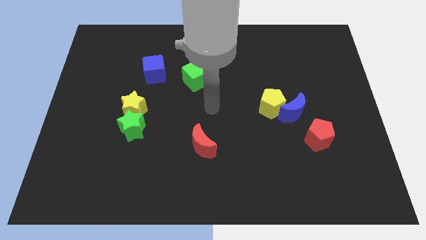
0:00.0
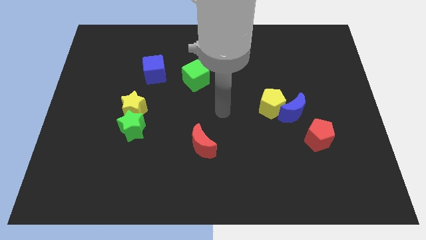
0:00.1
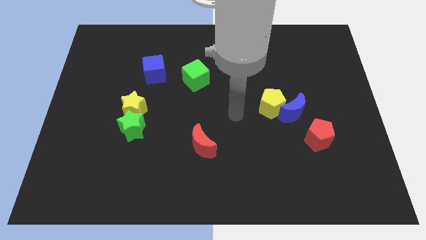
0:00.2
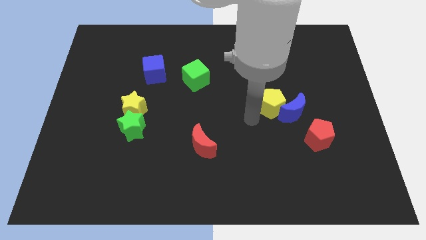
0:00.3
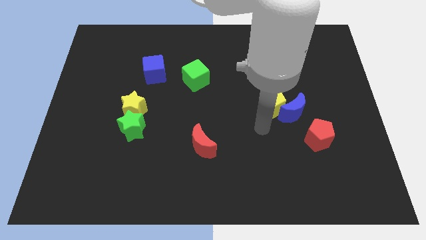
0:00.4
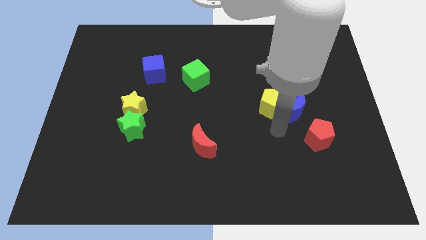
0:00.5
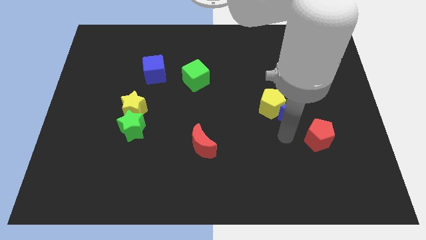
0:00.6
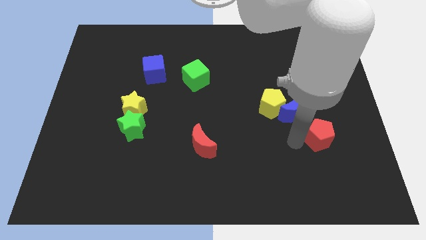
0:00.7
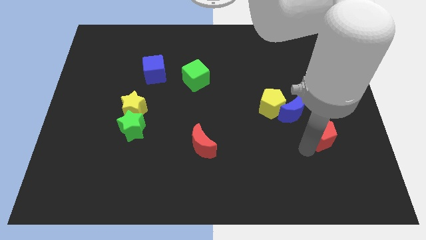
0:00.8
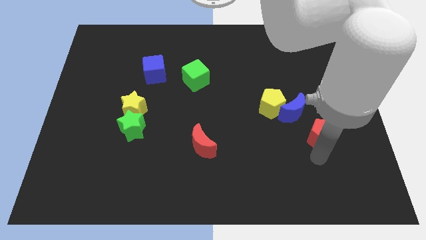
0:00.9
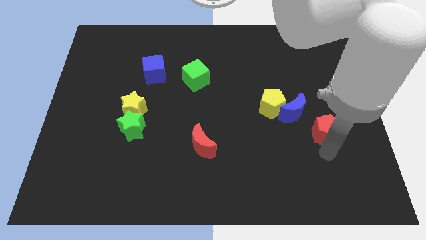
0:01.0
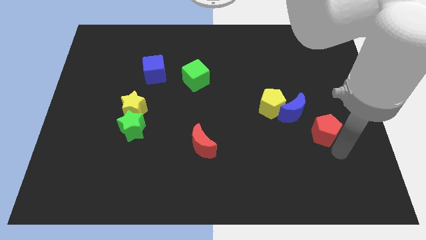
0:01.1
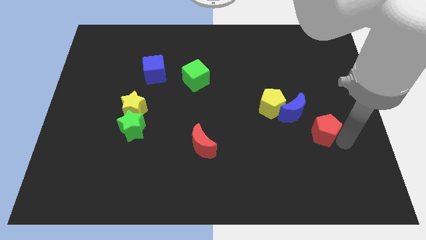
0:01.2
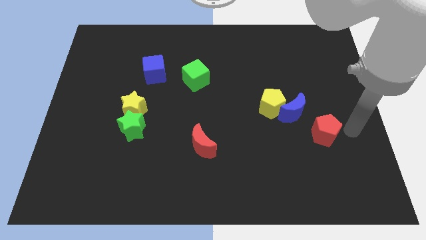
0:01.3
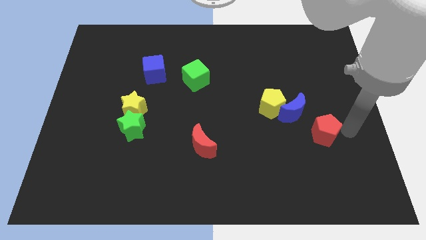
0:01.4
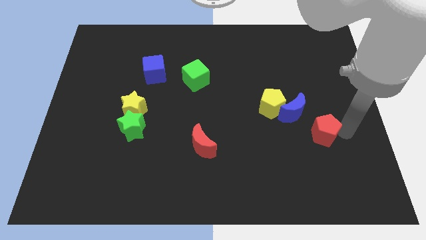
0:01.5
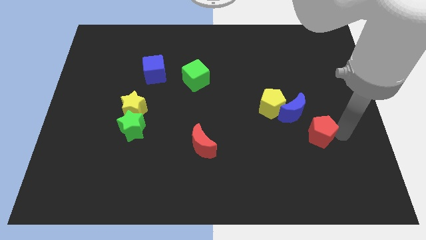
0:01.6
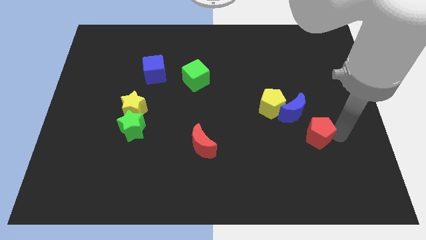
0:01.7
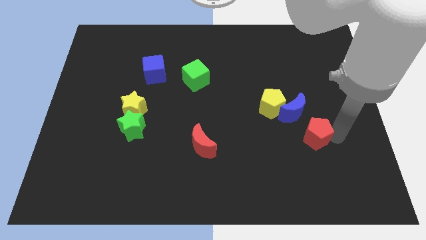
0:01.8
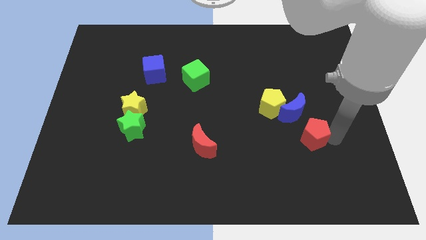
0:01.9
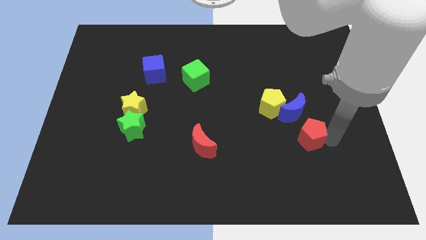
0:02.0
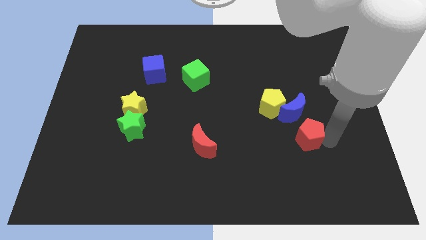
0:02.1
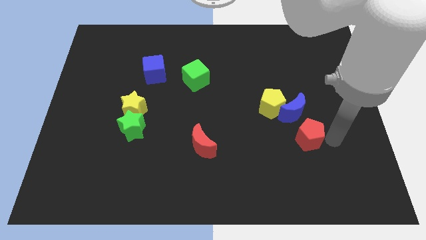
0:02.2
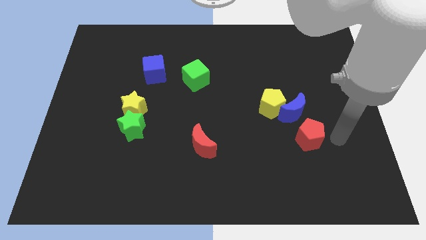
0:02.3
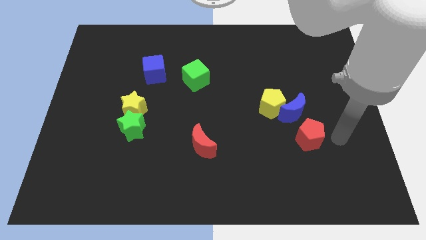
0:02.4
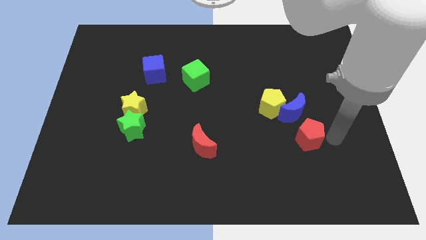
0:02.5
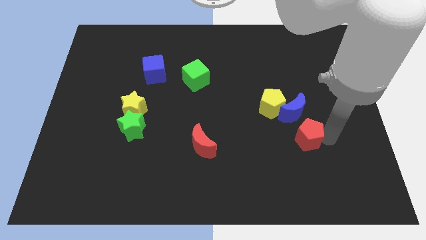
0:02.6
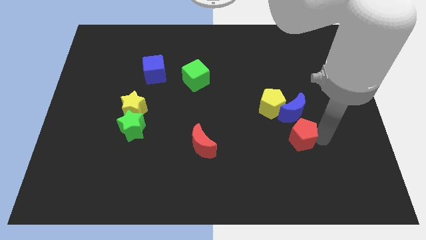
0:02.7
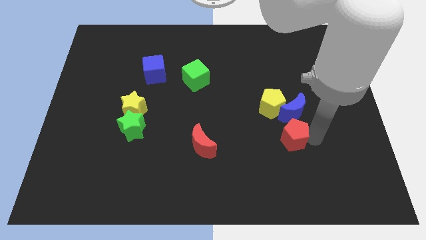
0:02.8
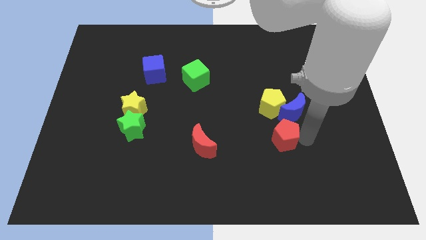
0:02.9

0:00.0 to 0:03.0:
move the red pentagon to the left a little bit

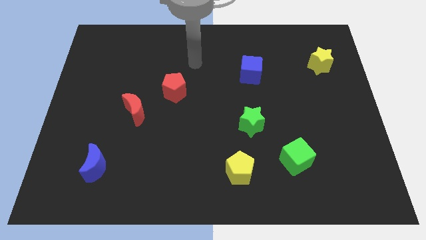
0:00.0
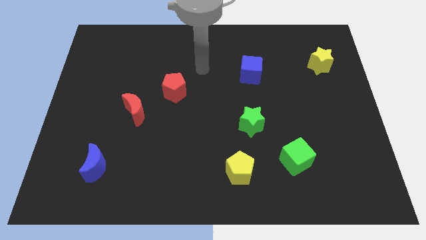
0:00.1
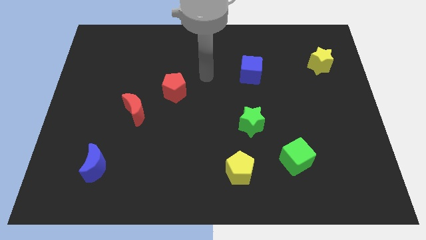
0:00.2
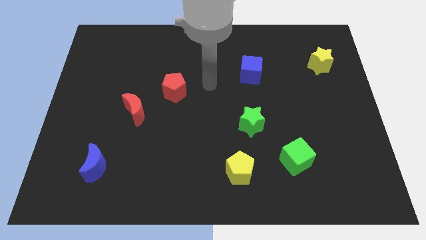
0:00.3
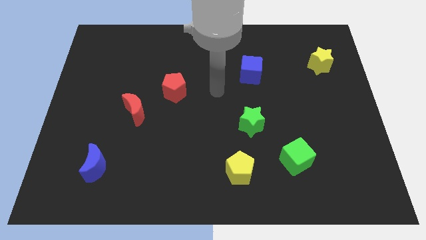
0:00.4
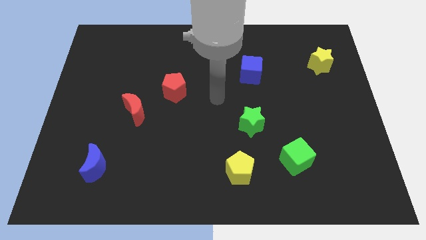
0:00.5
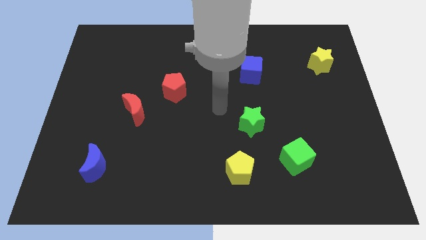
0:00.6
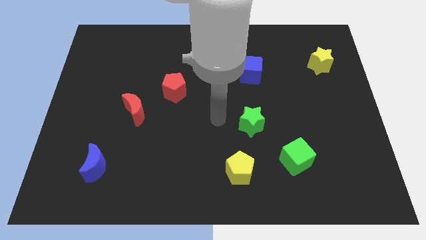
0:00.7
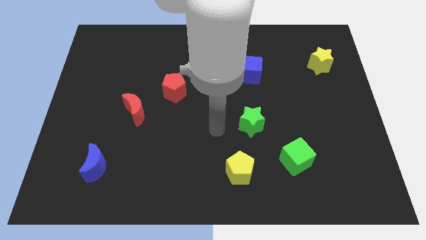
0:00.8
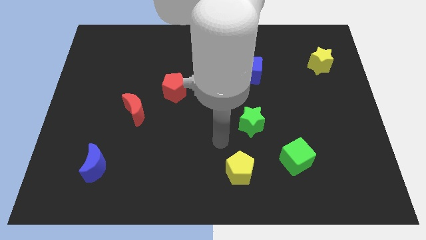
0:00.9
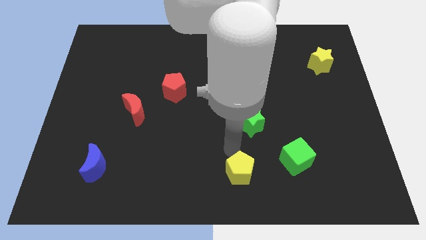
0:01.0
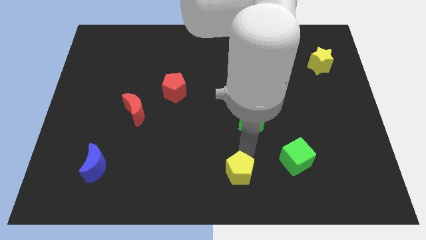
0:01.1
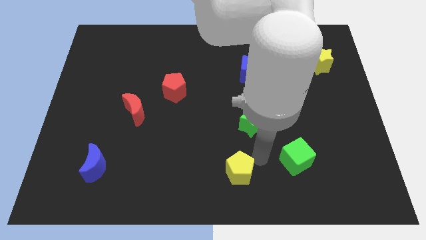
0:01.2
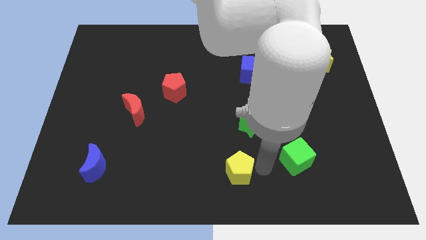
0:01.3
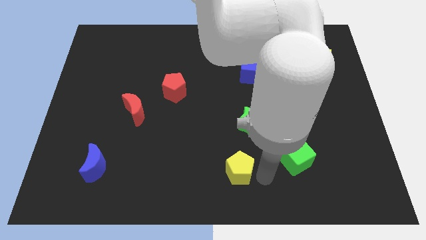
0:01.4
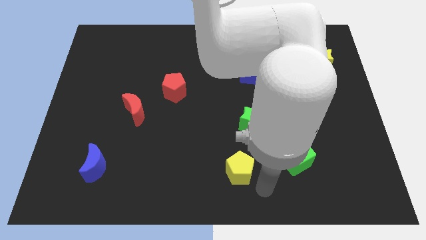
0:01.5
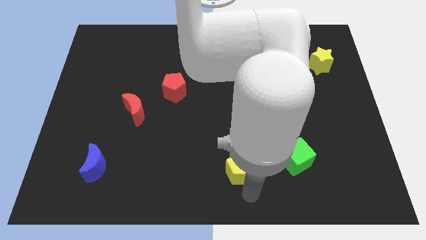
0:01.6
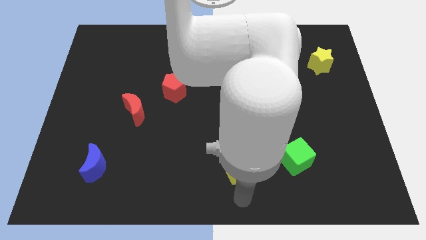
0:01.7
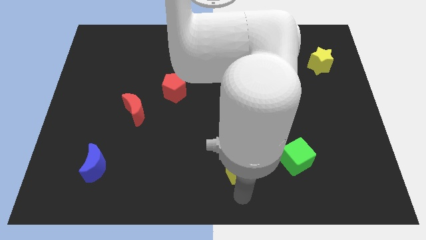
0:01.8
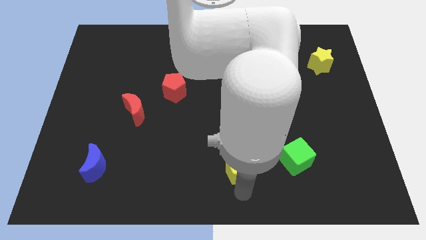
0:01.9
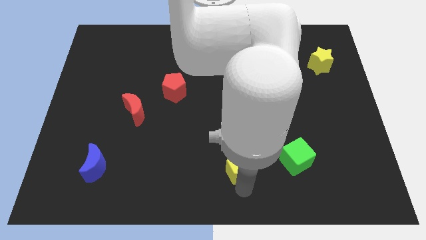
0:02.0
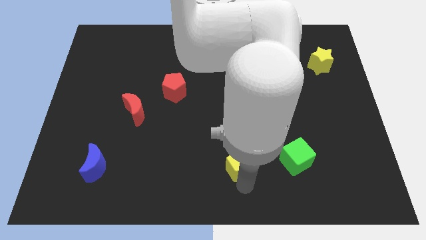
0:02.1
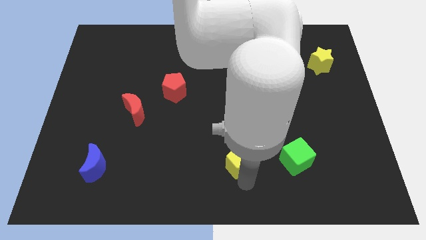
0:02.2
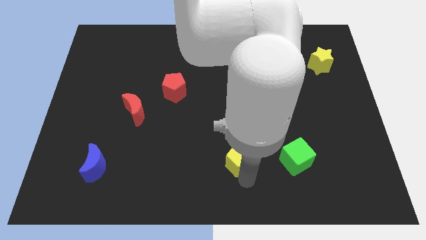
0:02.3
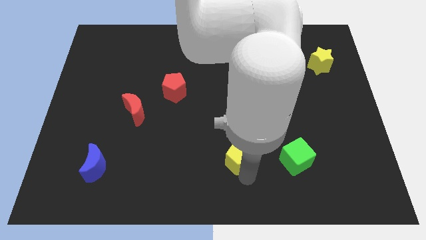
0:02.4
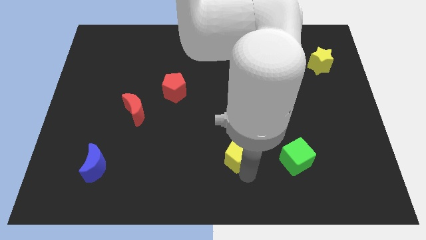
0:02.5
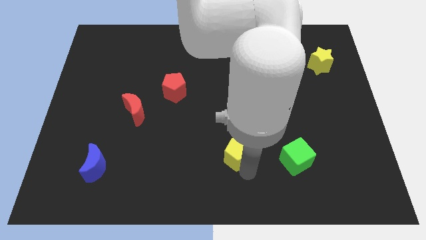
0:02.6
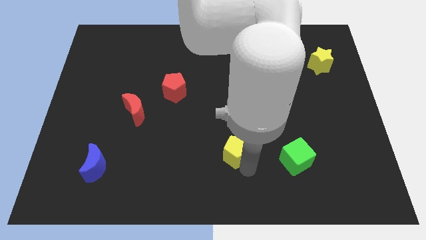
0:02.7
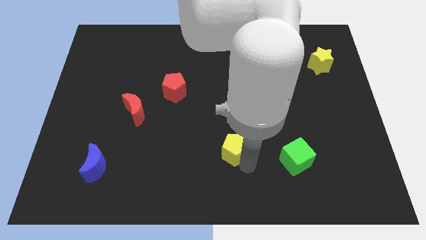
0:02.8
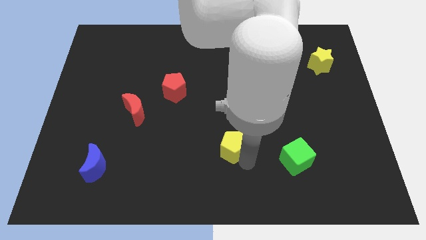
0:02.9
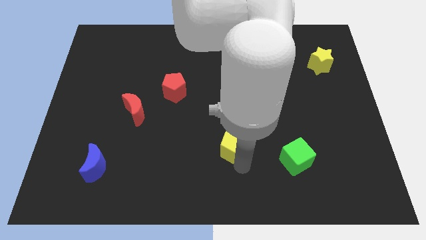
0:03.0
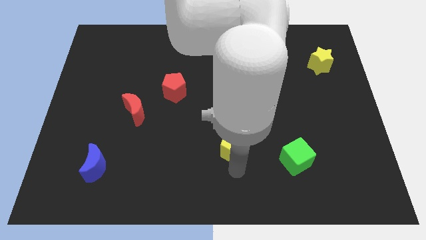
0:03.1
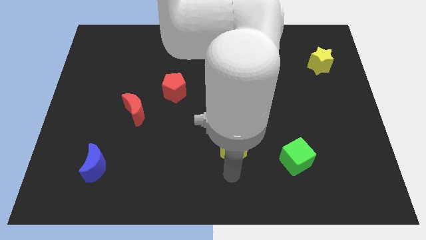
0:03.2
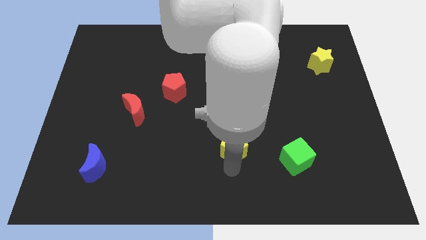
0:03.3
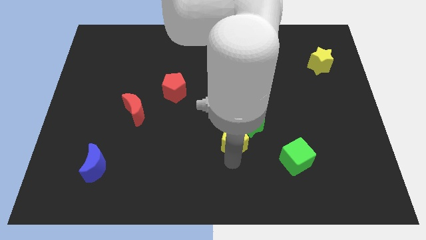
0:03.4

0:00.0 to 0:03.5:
move the yellow pentagon a bit up

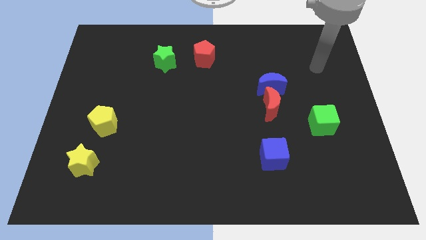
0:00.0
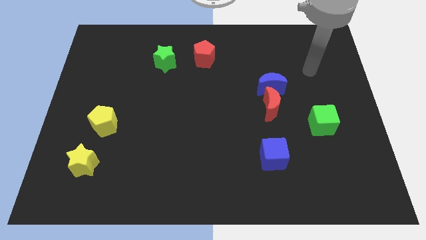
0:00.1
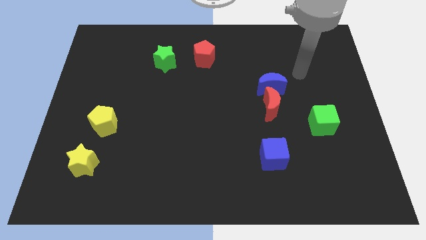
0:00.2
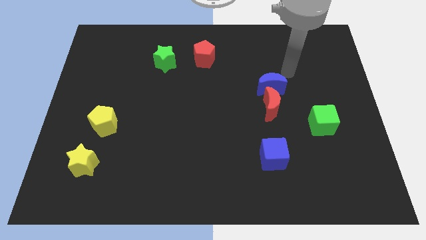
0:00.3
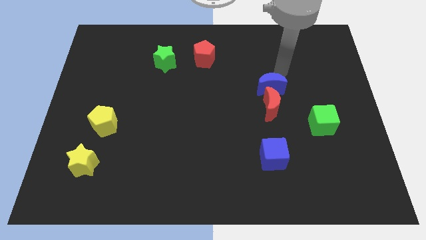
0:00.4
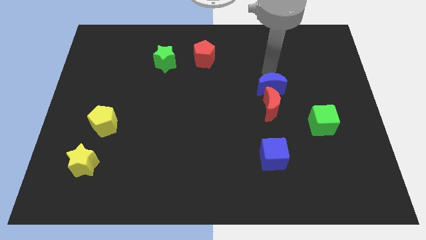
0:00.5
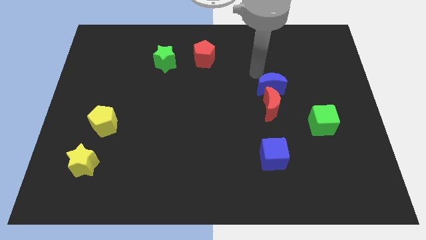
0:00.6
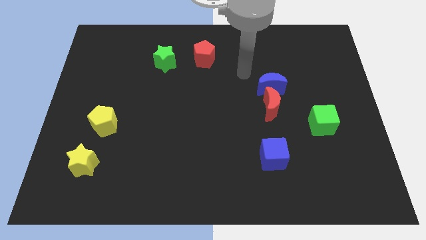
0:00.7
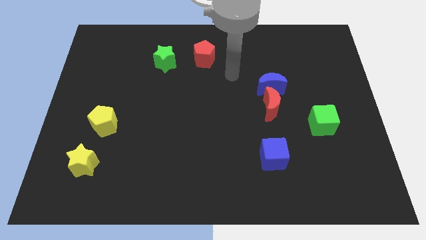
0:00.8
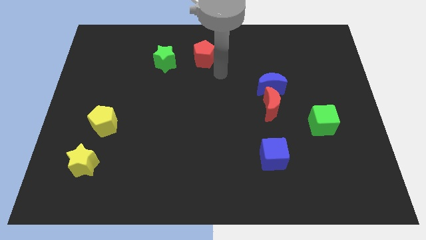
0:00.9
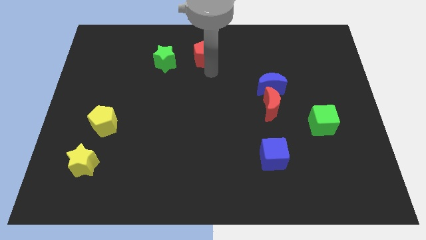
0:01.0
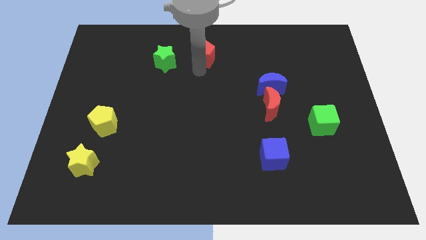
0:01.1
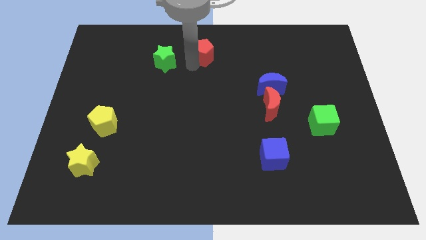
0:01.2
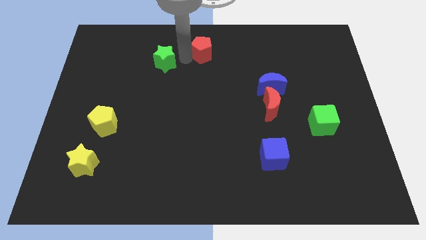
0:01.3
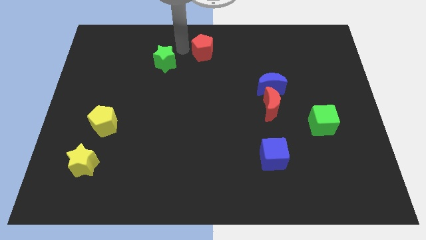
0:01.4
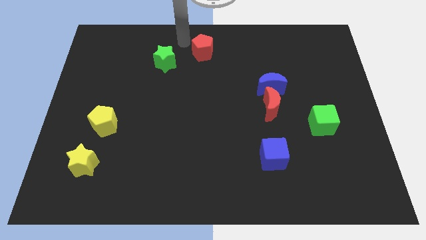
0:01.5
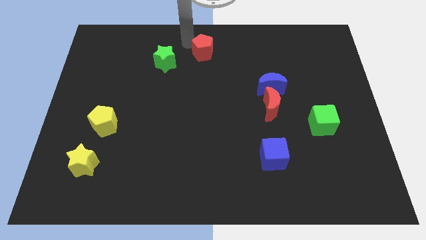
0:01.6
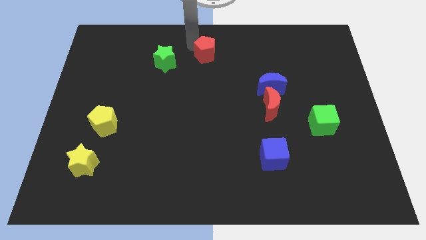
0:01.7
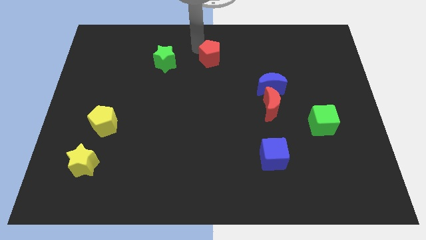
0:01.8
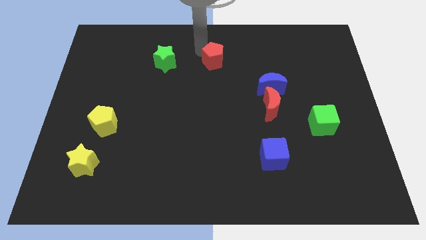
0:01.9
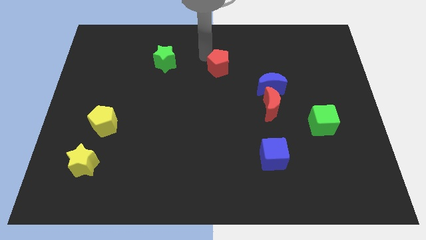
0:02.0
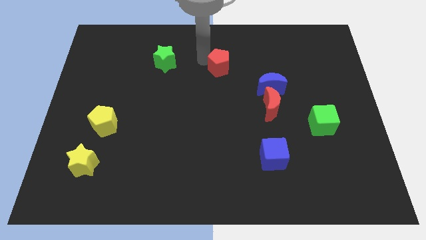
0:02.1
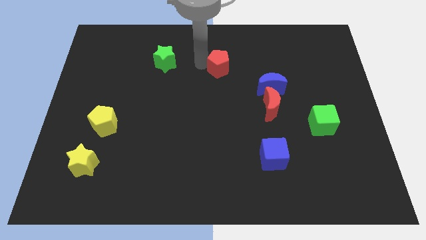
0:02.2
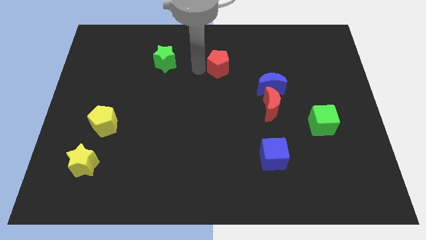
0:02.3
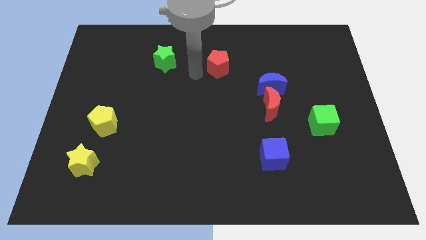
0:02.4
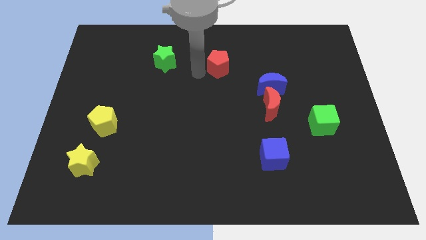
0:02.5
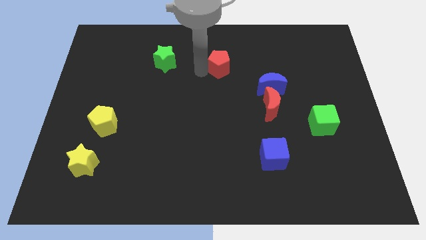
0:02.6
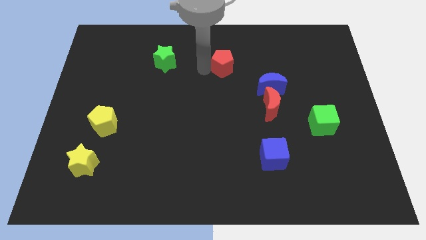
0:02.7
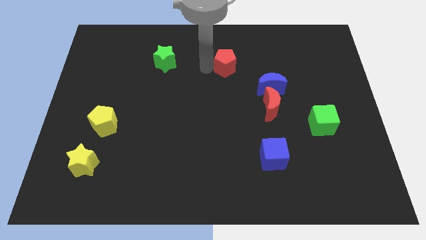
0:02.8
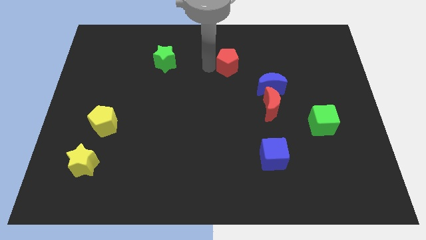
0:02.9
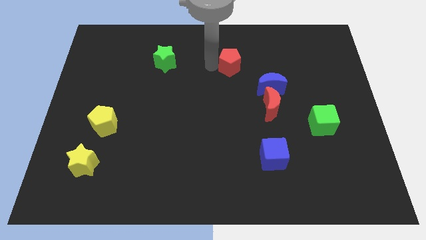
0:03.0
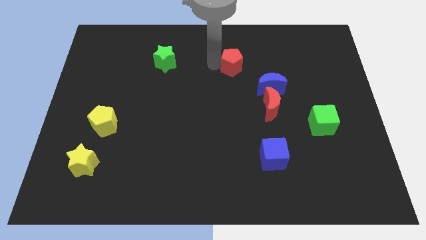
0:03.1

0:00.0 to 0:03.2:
slide the red pentagon a little bit right
